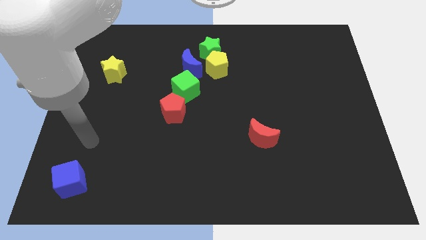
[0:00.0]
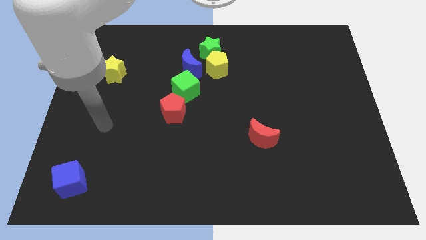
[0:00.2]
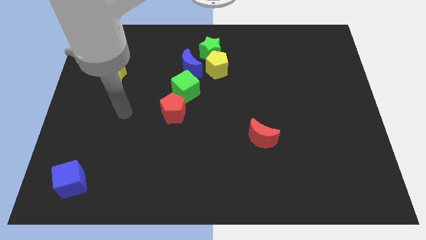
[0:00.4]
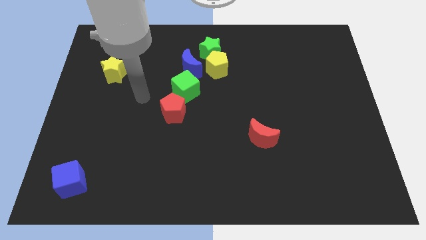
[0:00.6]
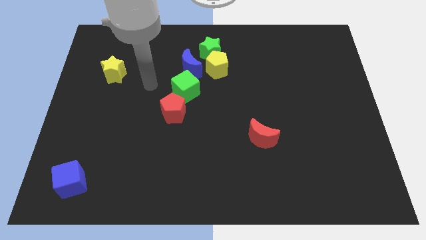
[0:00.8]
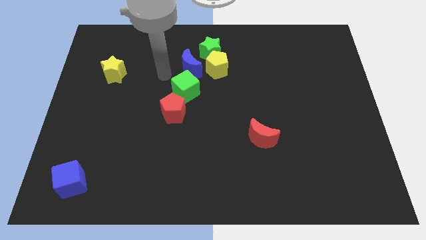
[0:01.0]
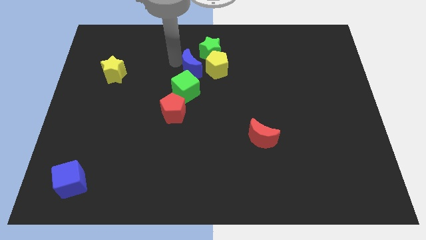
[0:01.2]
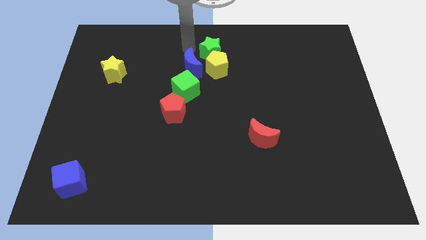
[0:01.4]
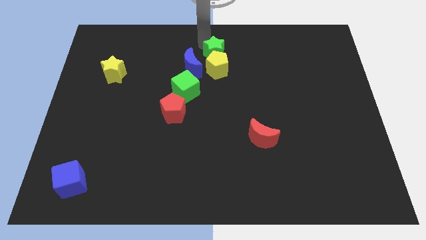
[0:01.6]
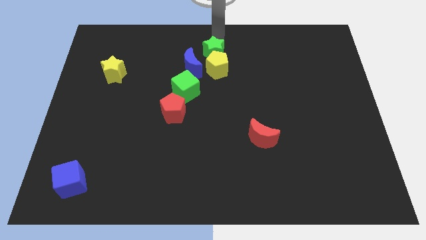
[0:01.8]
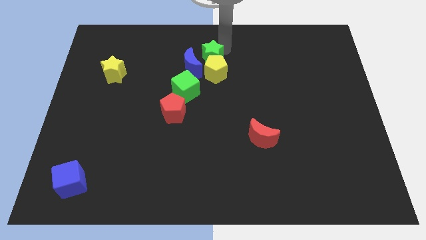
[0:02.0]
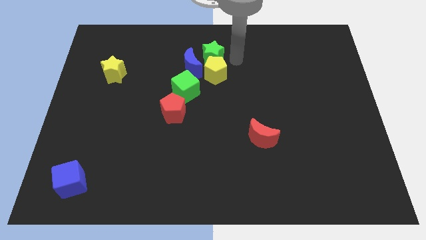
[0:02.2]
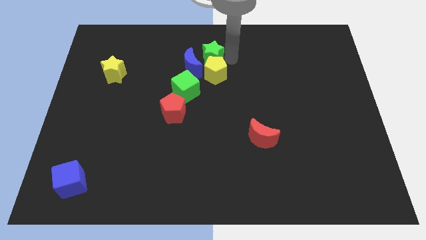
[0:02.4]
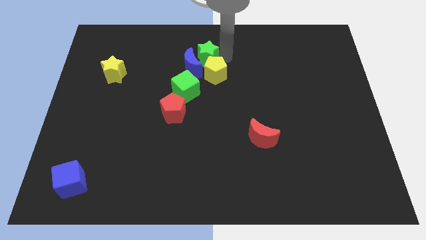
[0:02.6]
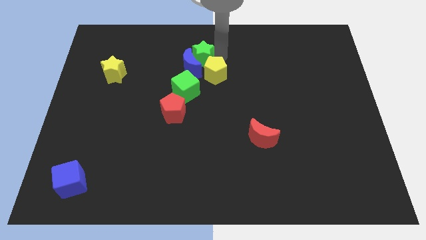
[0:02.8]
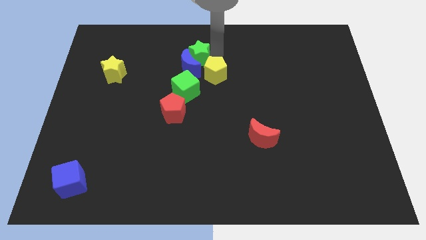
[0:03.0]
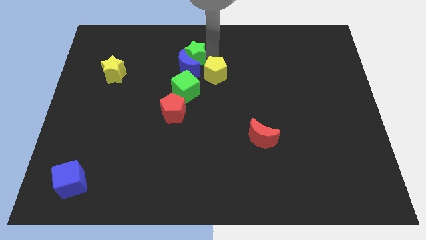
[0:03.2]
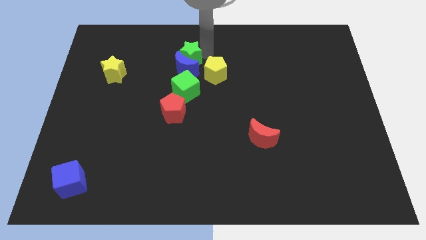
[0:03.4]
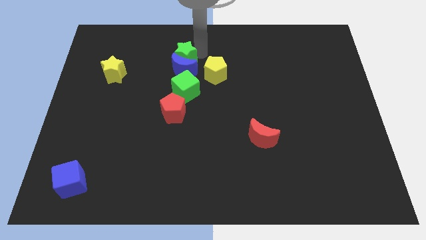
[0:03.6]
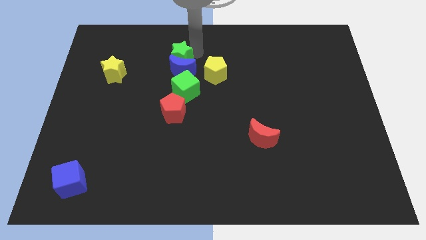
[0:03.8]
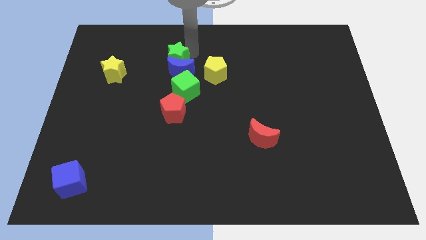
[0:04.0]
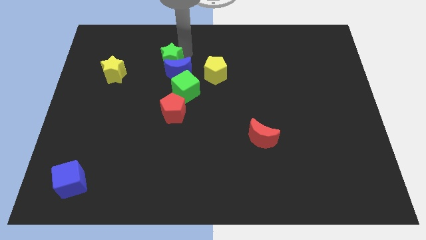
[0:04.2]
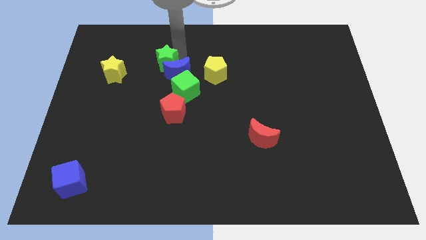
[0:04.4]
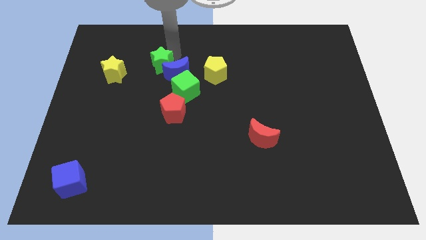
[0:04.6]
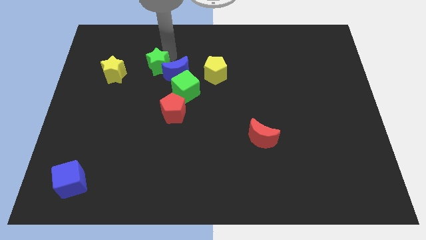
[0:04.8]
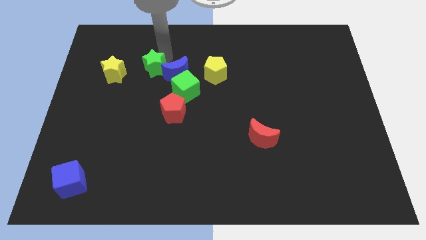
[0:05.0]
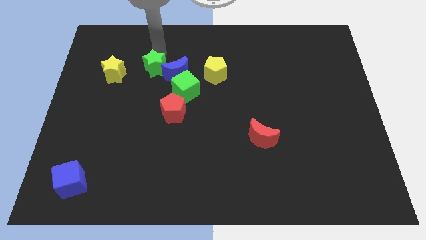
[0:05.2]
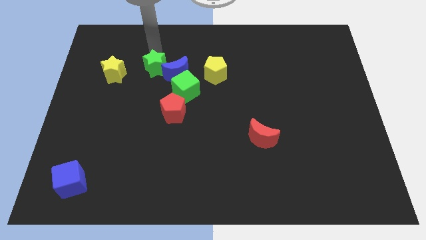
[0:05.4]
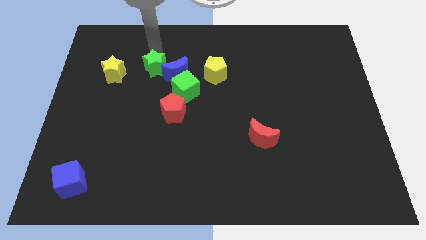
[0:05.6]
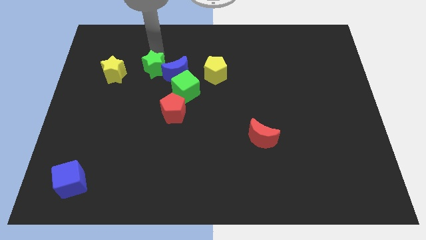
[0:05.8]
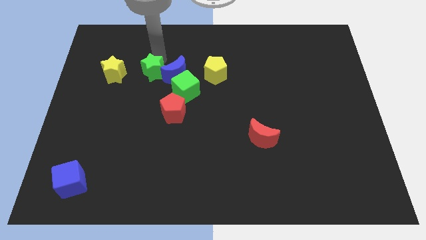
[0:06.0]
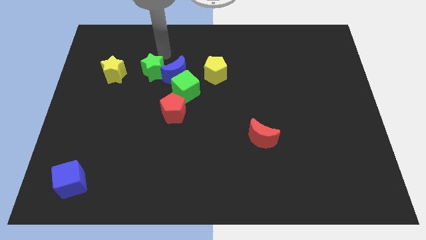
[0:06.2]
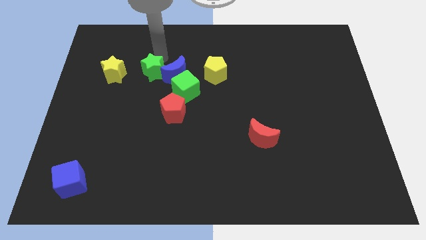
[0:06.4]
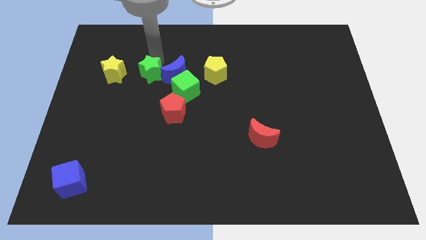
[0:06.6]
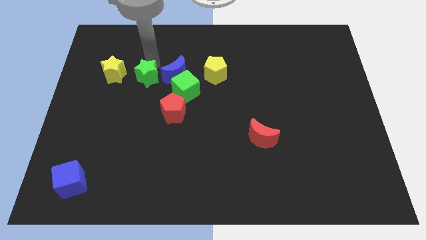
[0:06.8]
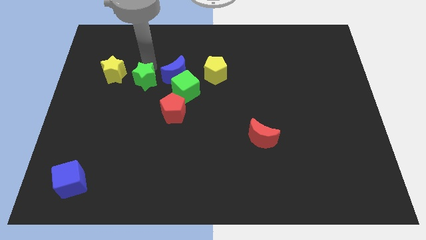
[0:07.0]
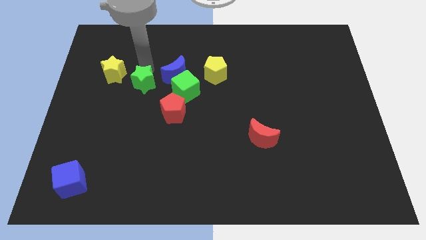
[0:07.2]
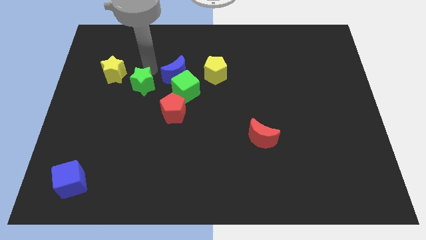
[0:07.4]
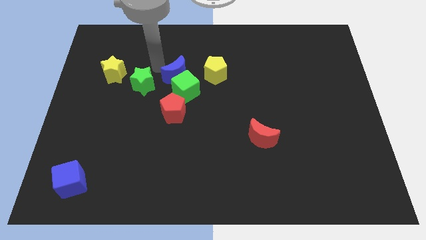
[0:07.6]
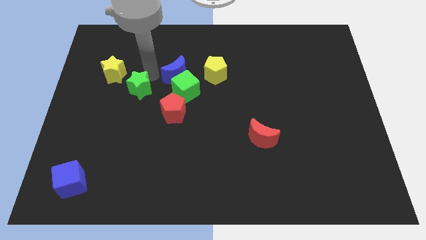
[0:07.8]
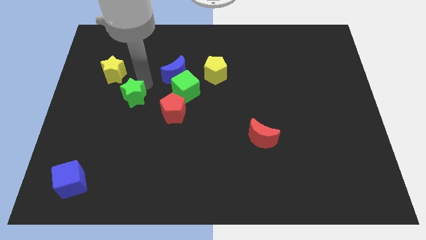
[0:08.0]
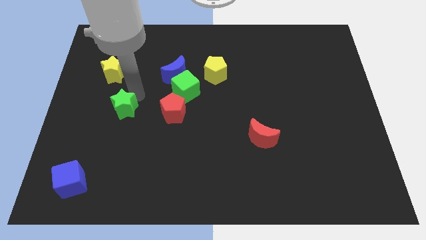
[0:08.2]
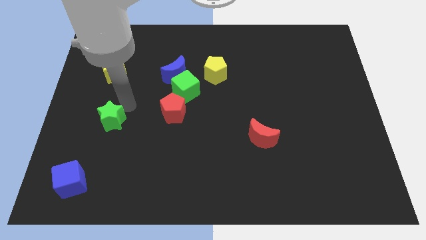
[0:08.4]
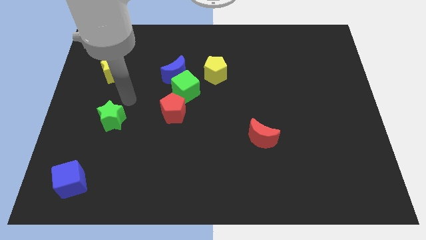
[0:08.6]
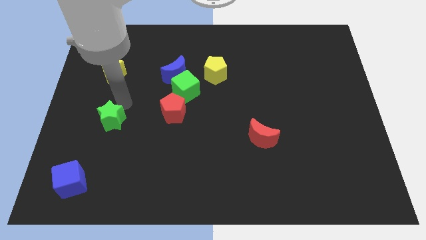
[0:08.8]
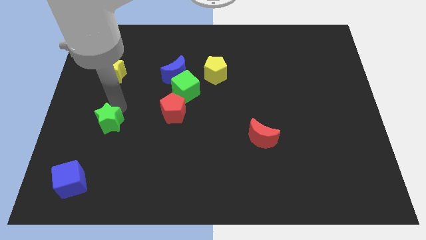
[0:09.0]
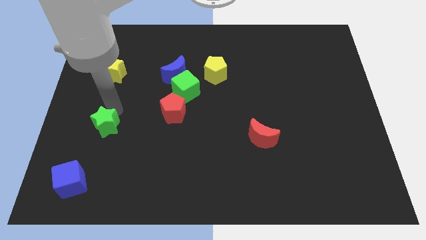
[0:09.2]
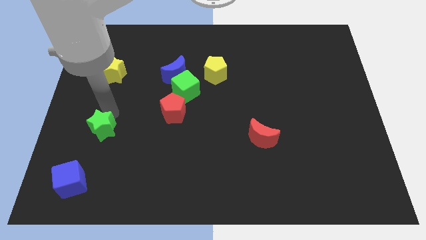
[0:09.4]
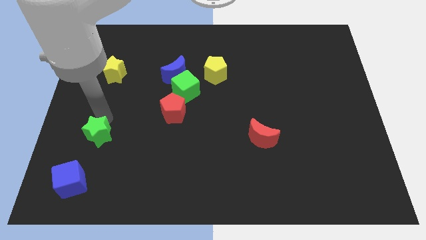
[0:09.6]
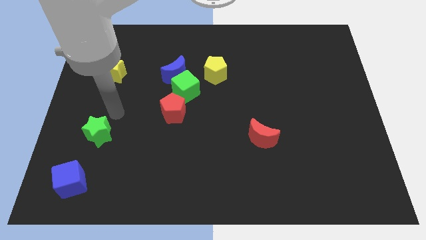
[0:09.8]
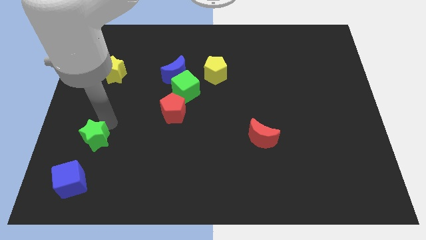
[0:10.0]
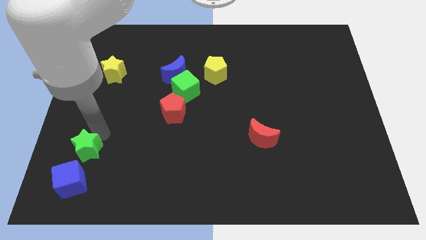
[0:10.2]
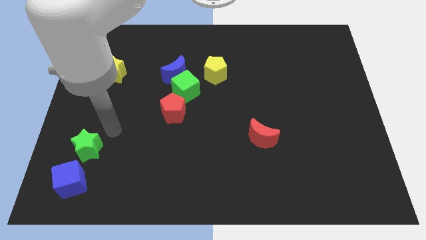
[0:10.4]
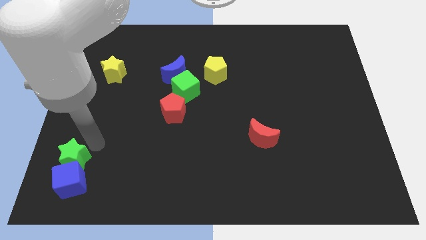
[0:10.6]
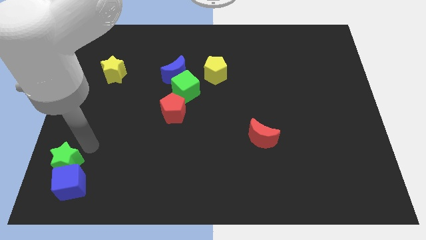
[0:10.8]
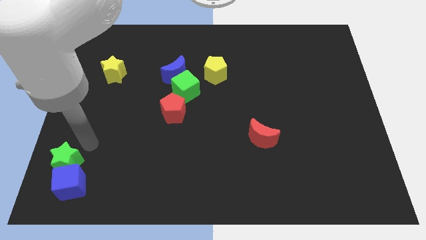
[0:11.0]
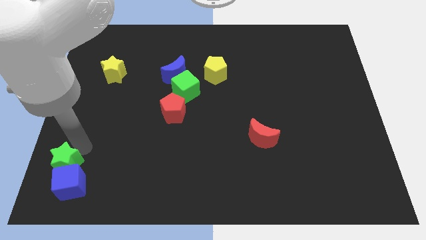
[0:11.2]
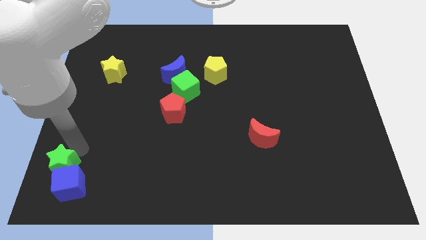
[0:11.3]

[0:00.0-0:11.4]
put the green star to the lower left corner

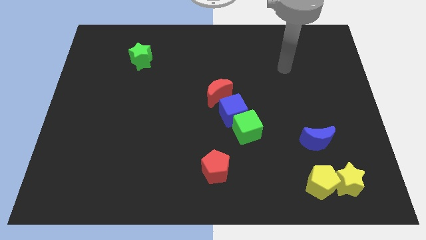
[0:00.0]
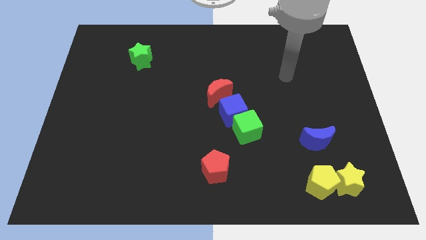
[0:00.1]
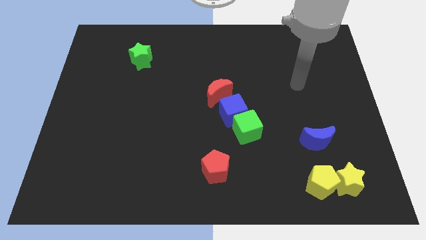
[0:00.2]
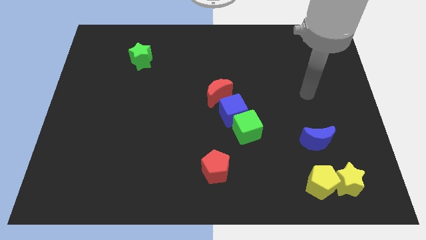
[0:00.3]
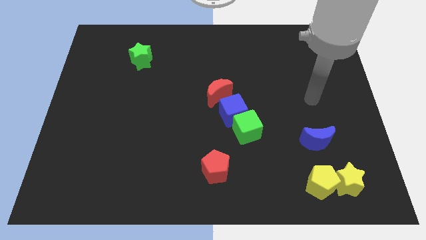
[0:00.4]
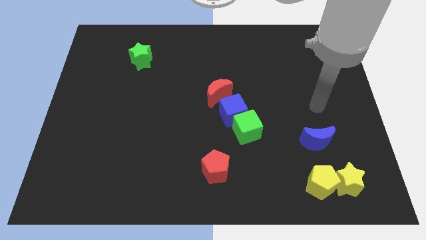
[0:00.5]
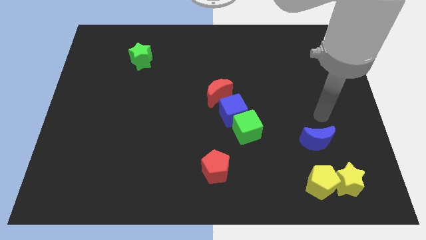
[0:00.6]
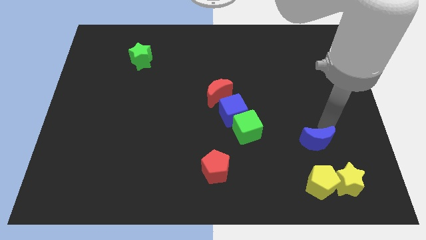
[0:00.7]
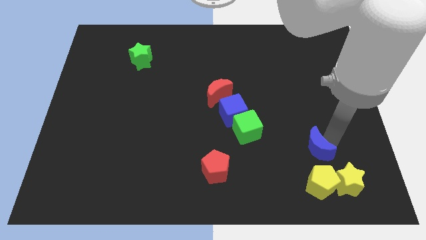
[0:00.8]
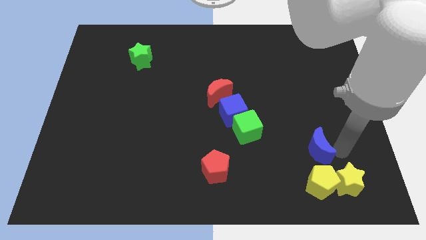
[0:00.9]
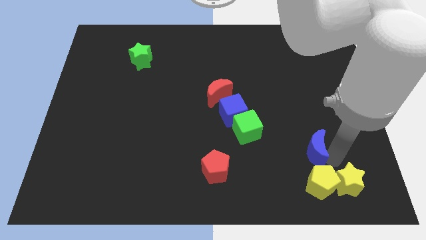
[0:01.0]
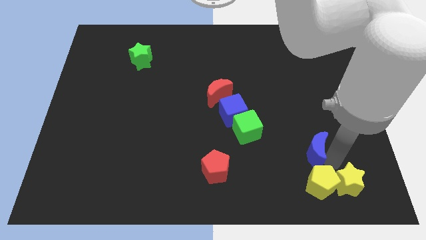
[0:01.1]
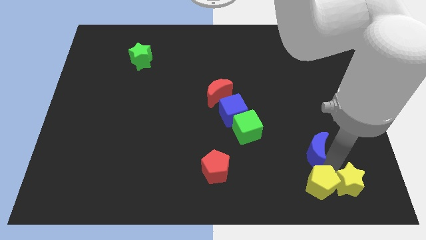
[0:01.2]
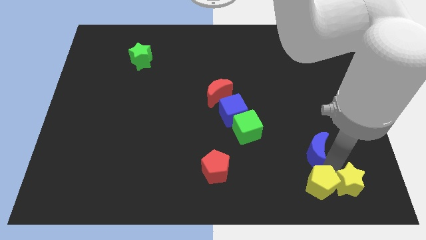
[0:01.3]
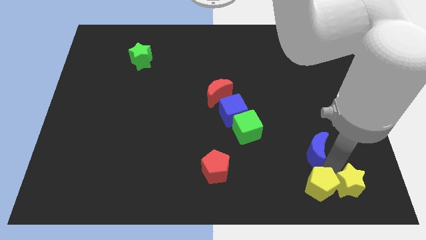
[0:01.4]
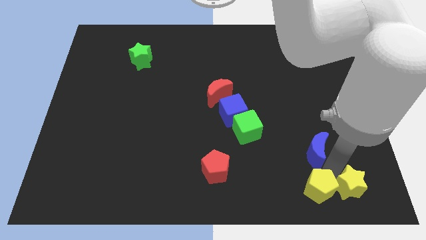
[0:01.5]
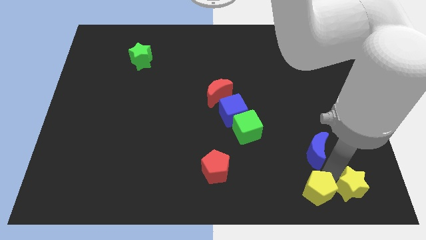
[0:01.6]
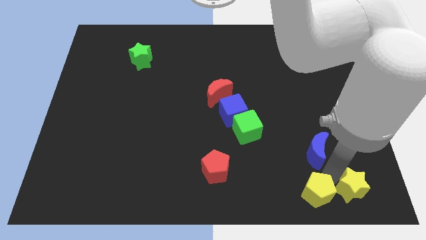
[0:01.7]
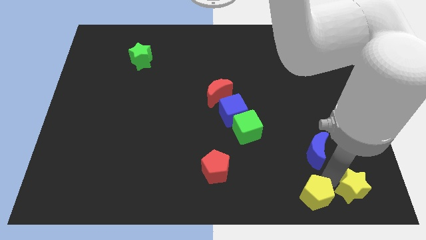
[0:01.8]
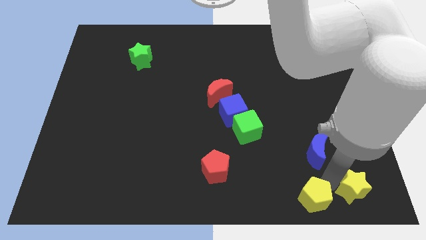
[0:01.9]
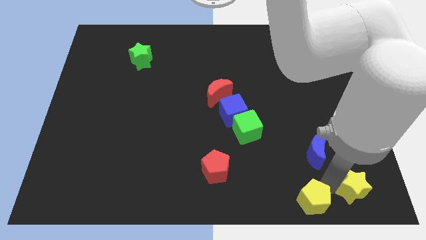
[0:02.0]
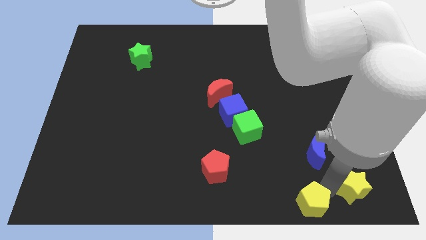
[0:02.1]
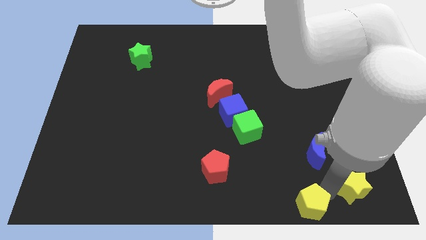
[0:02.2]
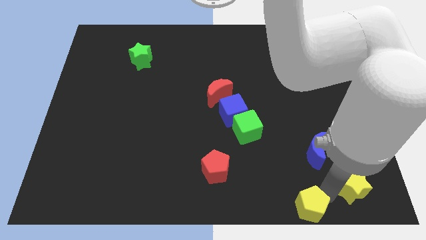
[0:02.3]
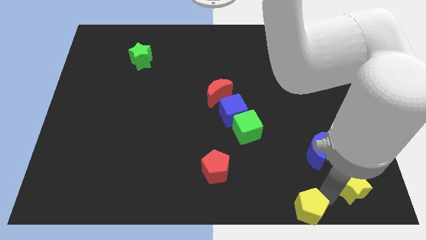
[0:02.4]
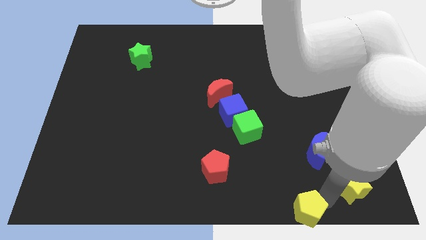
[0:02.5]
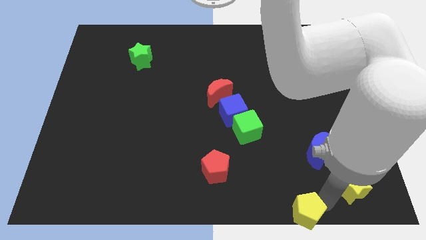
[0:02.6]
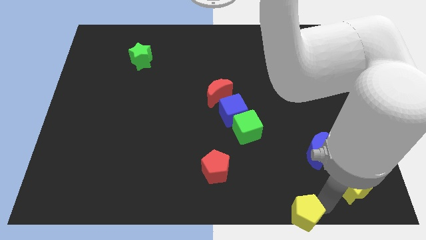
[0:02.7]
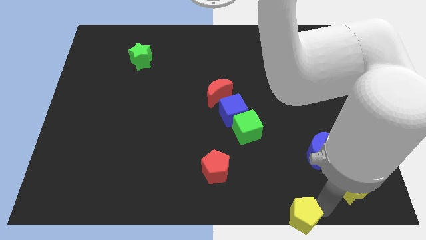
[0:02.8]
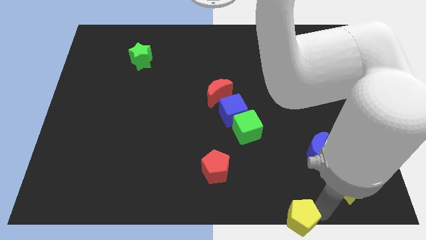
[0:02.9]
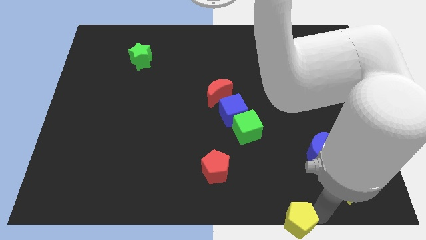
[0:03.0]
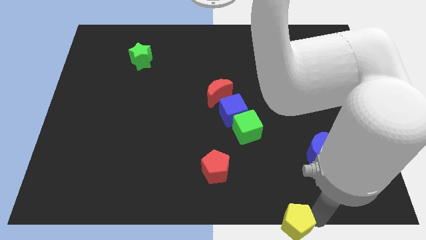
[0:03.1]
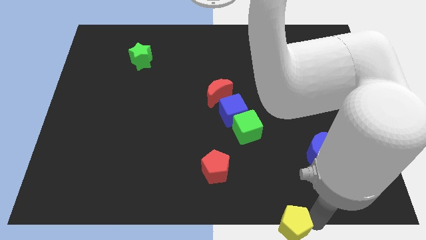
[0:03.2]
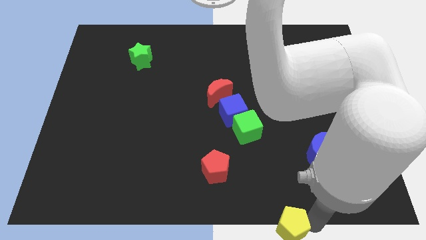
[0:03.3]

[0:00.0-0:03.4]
push the yellow pentagon to the bottom
